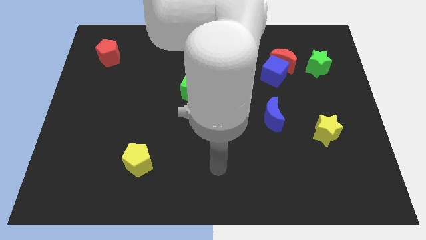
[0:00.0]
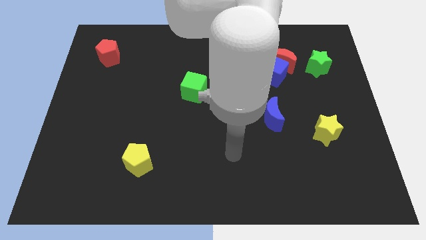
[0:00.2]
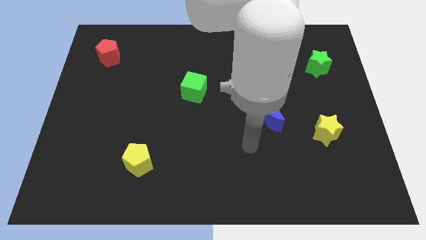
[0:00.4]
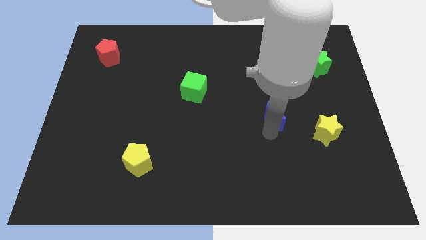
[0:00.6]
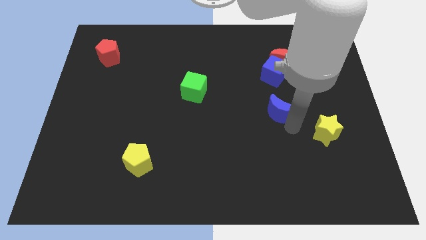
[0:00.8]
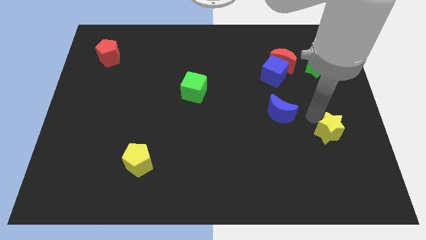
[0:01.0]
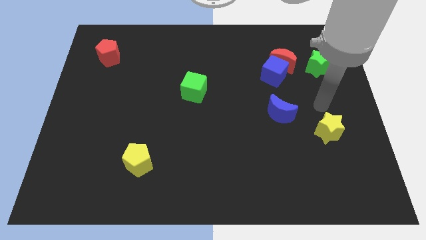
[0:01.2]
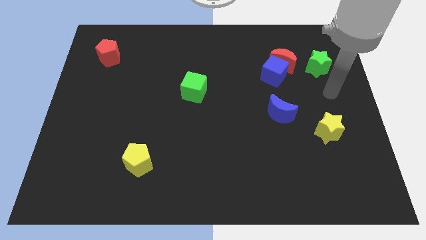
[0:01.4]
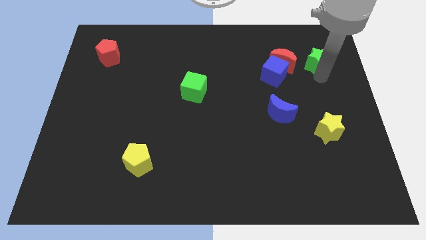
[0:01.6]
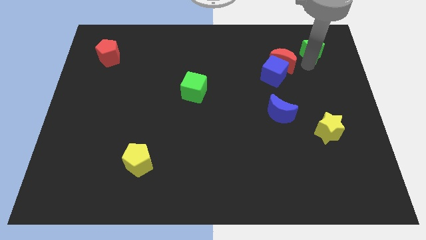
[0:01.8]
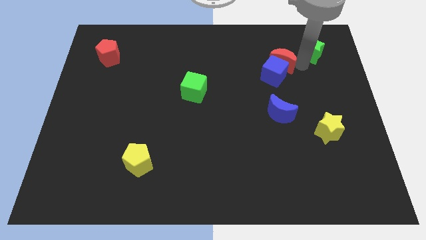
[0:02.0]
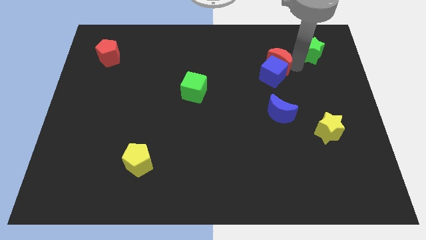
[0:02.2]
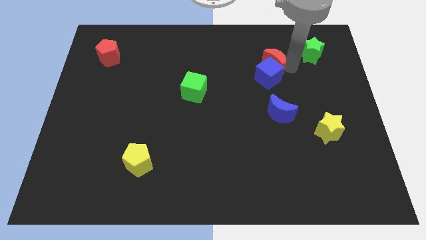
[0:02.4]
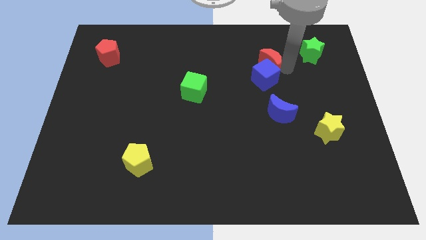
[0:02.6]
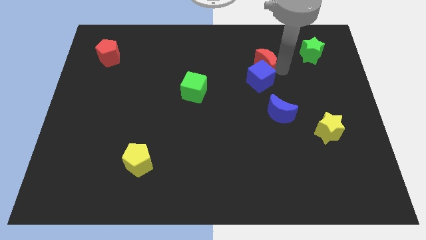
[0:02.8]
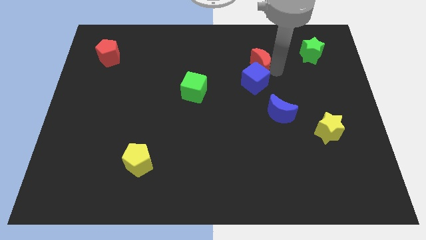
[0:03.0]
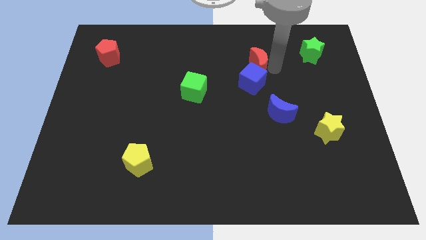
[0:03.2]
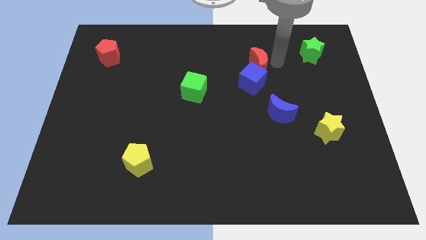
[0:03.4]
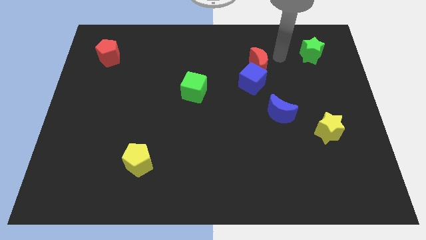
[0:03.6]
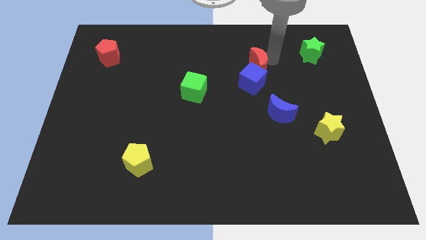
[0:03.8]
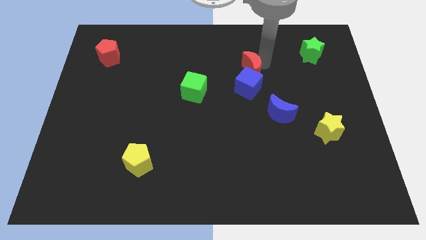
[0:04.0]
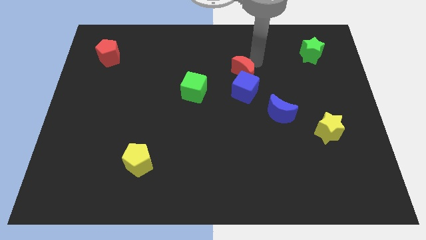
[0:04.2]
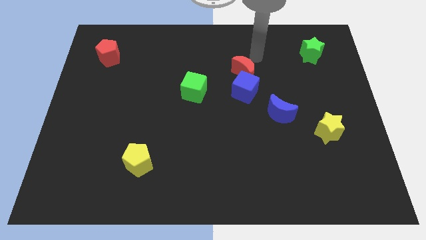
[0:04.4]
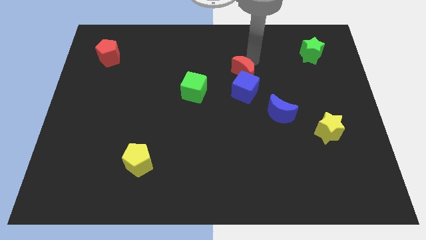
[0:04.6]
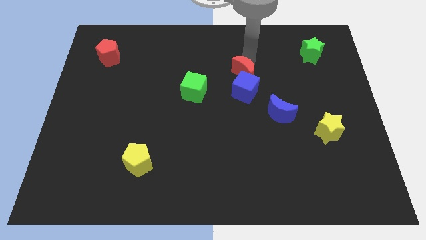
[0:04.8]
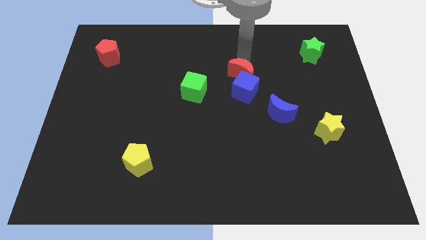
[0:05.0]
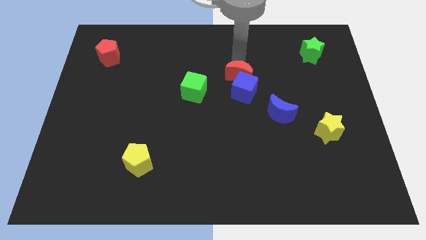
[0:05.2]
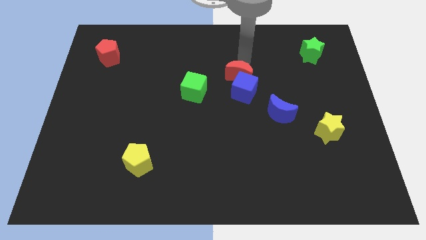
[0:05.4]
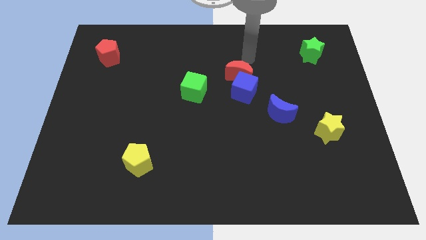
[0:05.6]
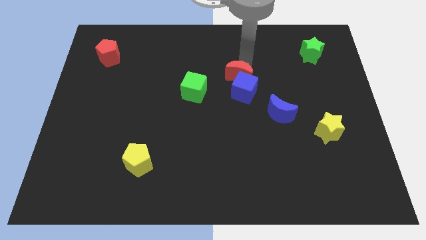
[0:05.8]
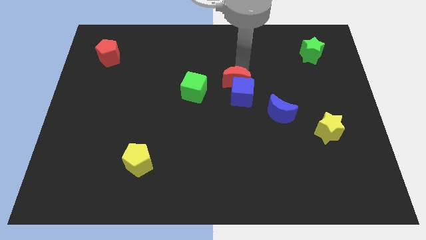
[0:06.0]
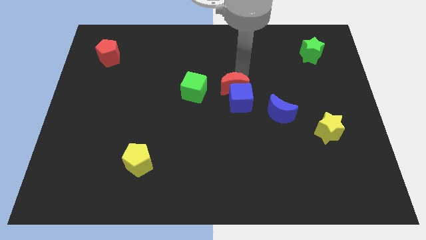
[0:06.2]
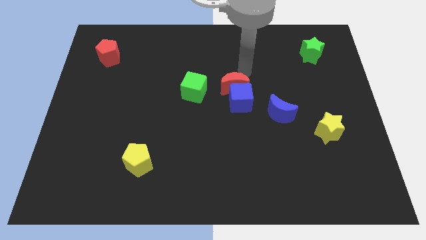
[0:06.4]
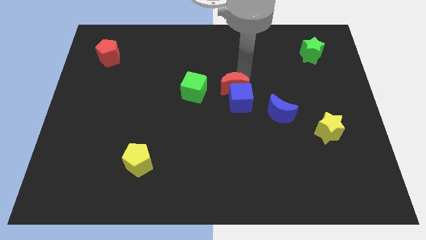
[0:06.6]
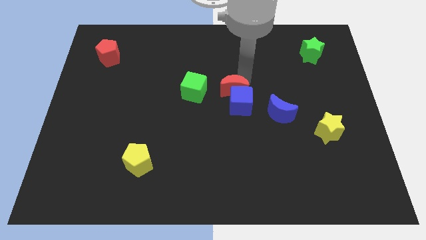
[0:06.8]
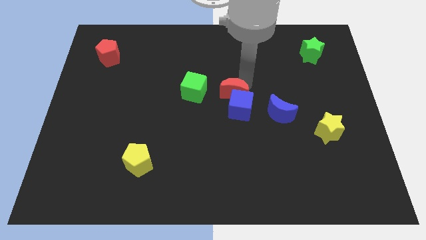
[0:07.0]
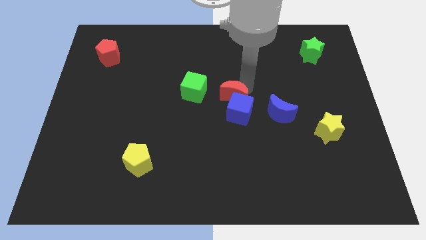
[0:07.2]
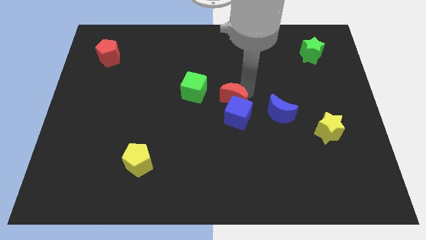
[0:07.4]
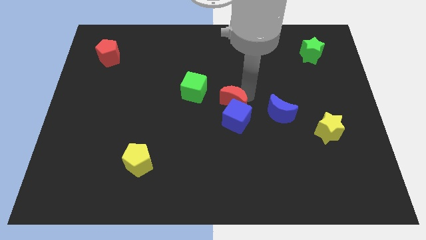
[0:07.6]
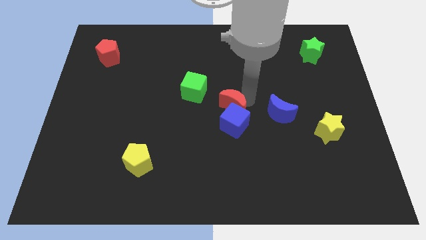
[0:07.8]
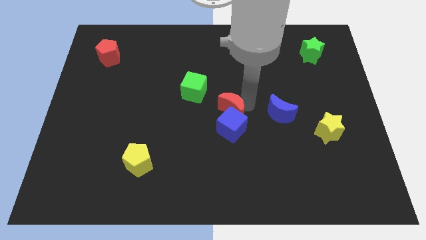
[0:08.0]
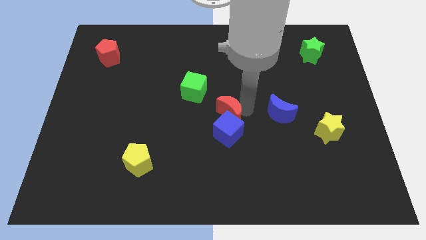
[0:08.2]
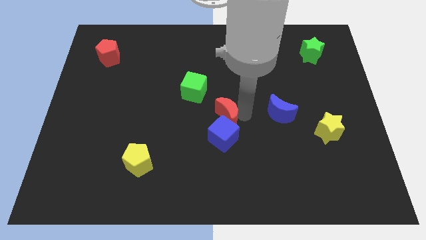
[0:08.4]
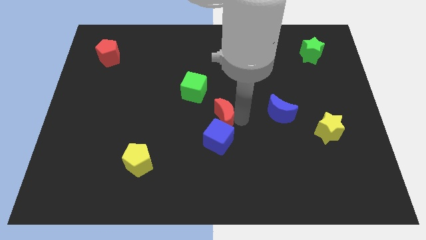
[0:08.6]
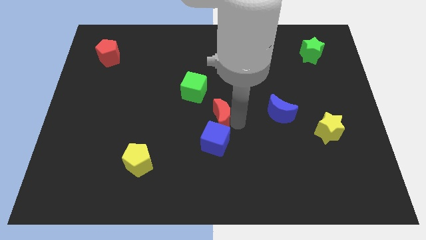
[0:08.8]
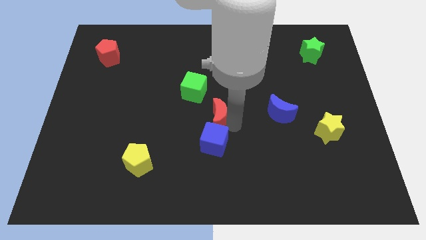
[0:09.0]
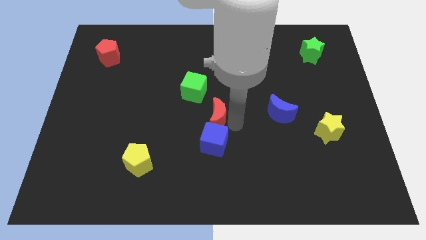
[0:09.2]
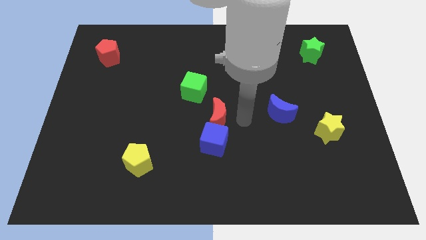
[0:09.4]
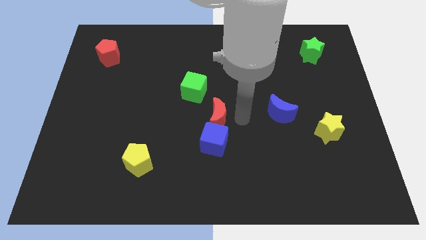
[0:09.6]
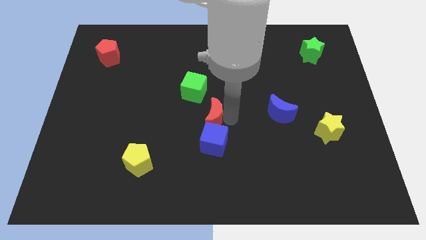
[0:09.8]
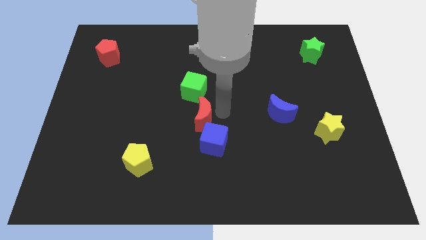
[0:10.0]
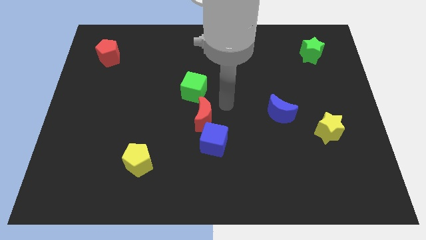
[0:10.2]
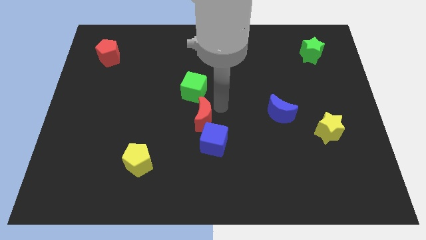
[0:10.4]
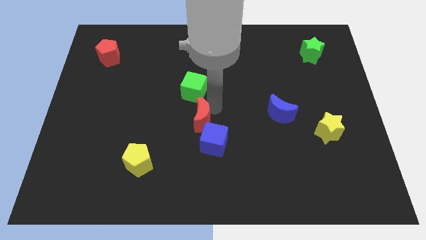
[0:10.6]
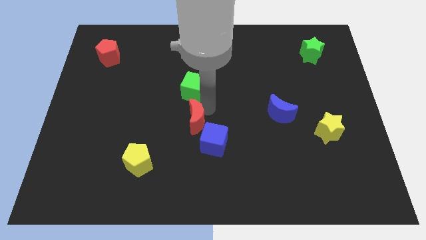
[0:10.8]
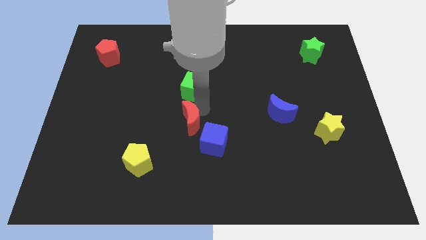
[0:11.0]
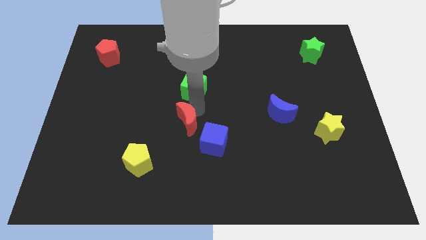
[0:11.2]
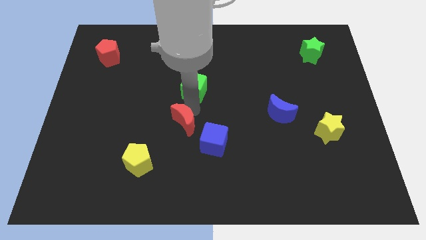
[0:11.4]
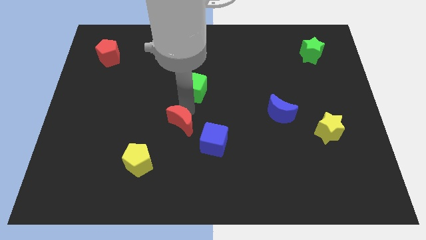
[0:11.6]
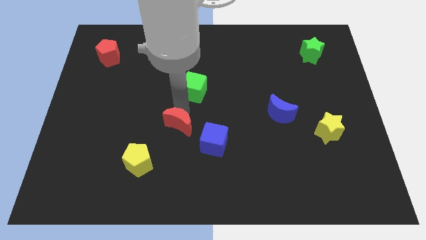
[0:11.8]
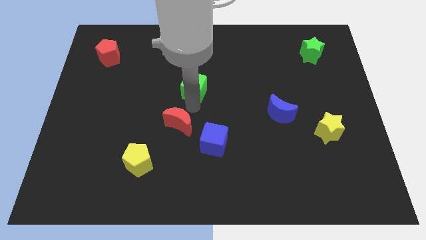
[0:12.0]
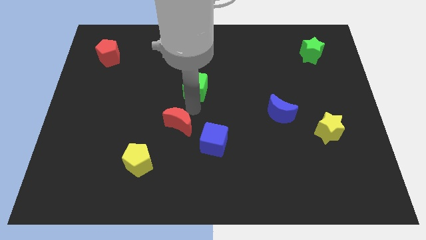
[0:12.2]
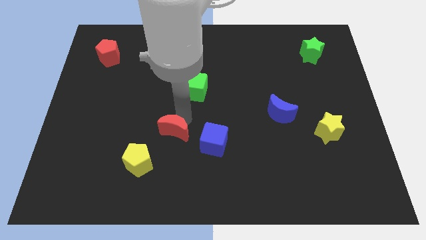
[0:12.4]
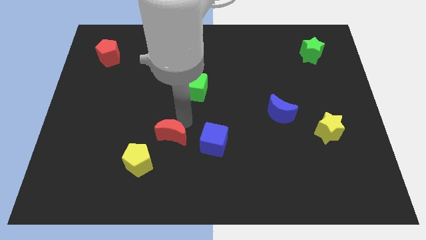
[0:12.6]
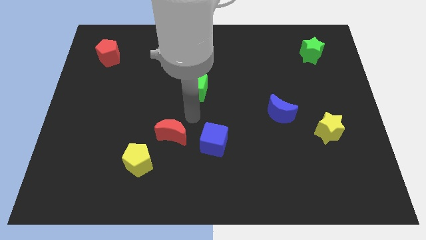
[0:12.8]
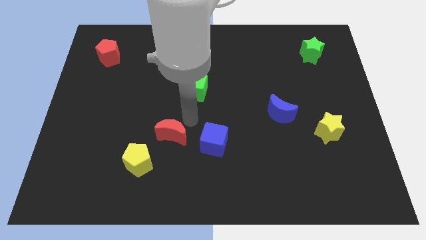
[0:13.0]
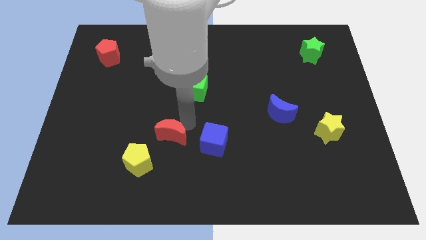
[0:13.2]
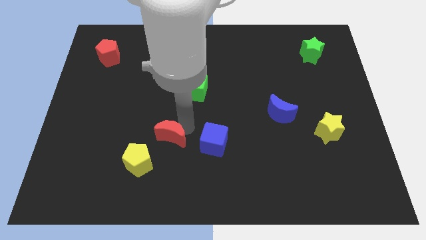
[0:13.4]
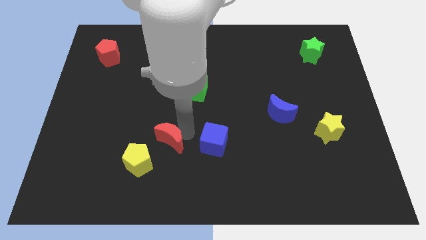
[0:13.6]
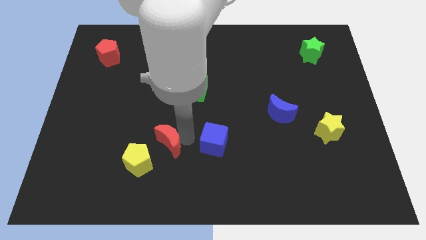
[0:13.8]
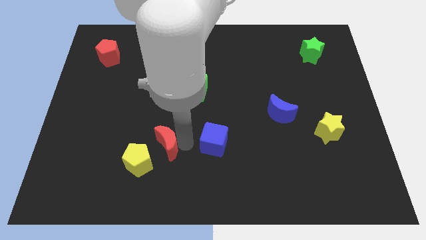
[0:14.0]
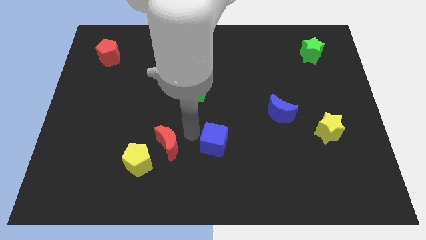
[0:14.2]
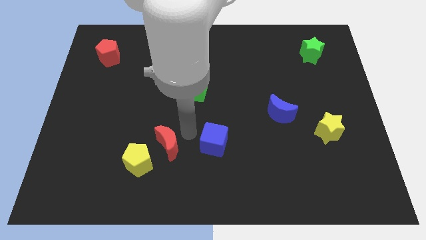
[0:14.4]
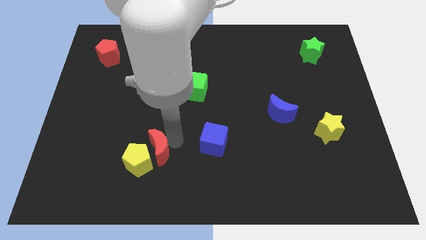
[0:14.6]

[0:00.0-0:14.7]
slide the red moon close to the yellow pentagon

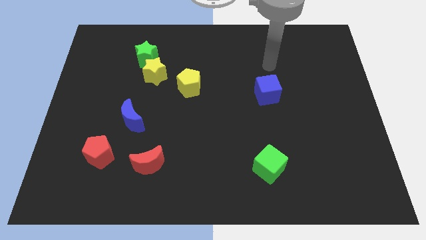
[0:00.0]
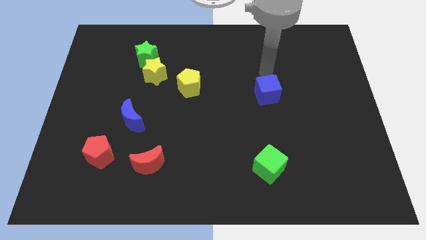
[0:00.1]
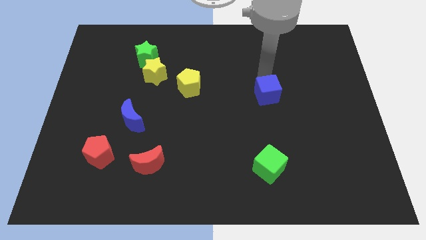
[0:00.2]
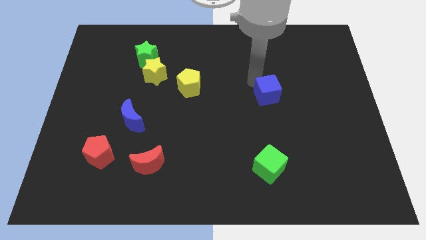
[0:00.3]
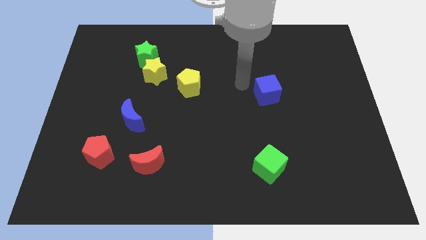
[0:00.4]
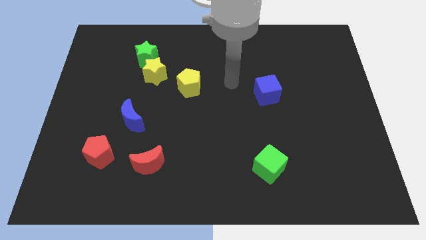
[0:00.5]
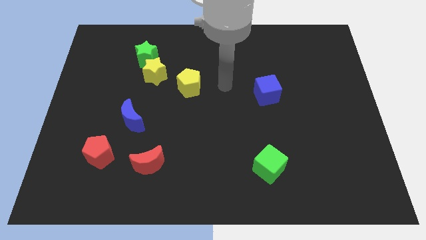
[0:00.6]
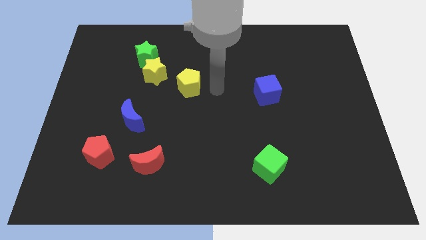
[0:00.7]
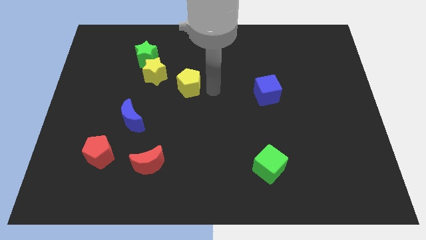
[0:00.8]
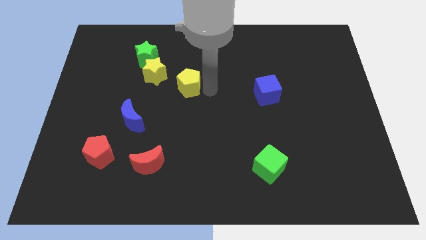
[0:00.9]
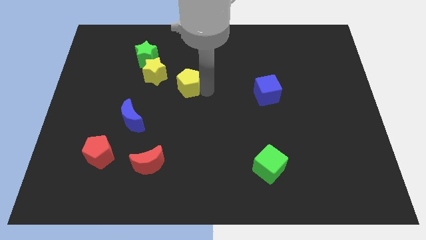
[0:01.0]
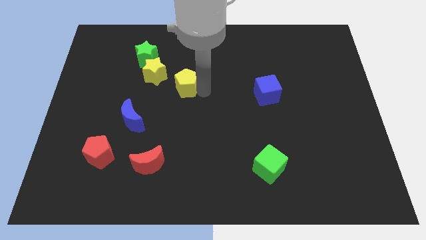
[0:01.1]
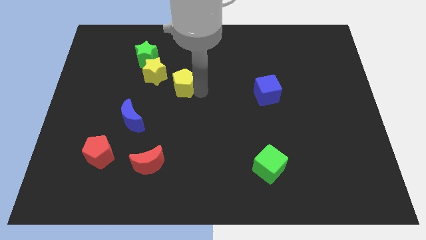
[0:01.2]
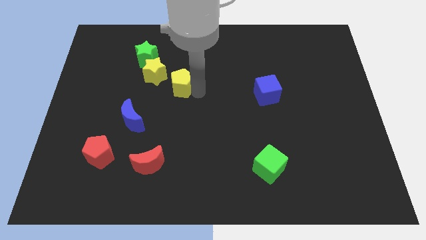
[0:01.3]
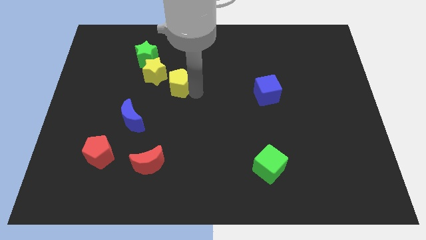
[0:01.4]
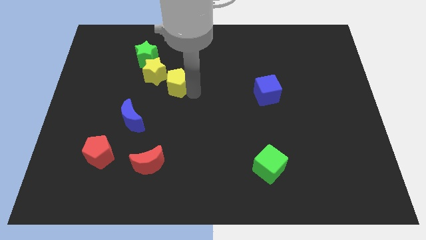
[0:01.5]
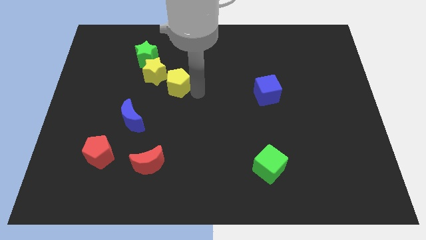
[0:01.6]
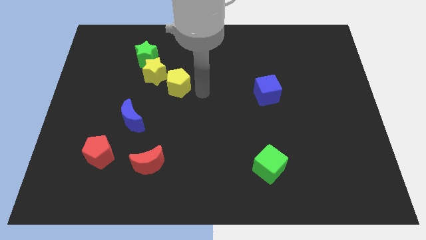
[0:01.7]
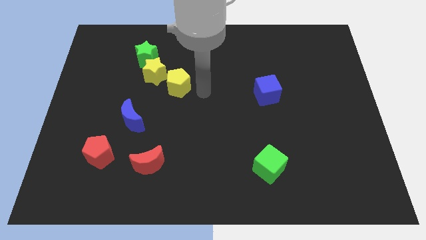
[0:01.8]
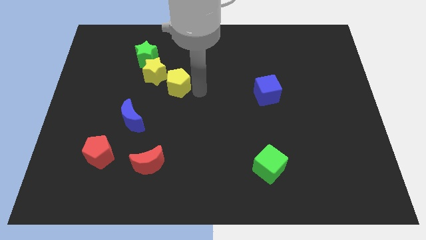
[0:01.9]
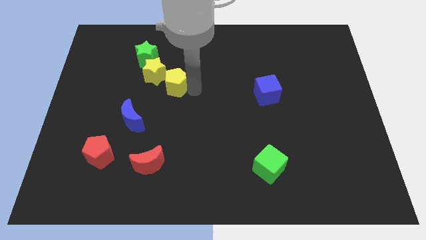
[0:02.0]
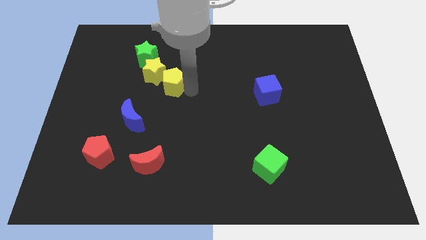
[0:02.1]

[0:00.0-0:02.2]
slide the yellow pentagon to the yellow star
